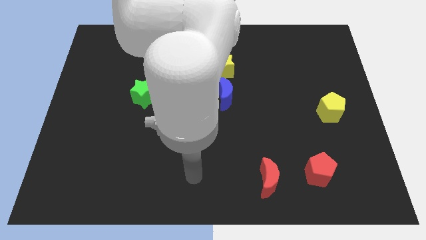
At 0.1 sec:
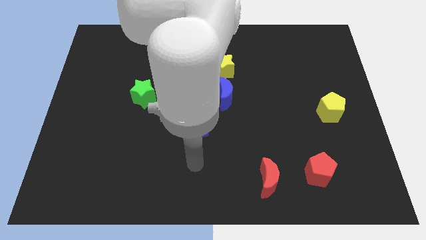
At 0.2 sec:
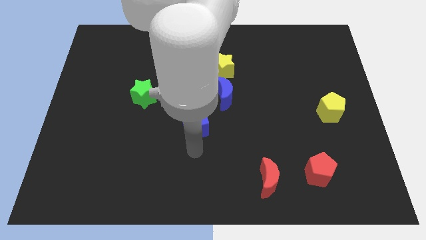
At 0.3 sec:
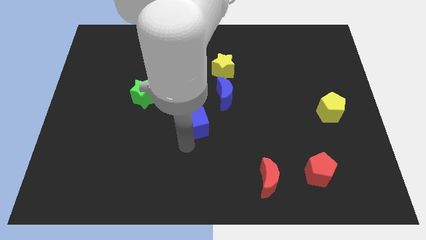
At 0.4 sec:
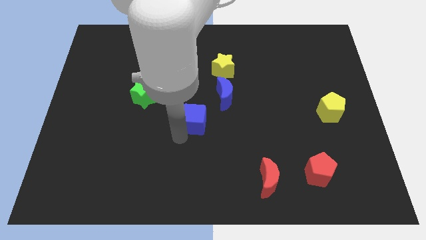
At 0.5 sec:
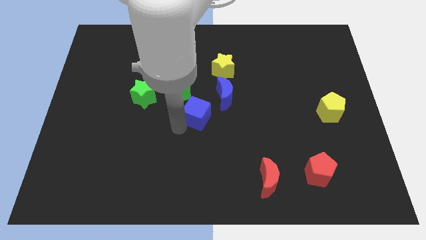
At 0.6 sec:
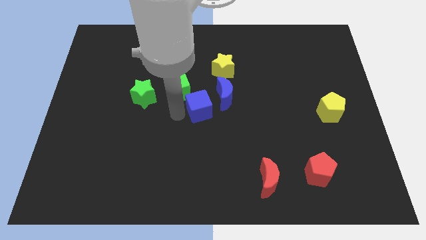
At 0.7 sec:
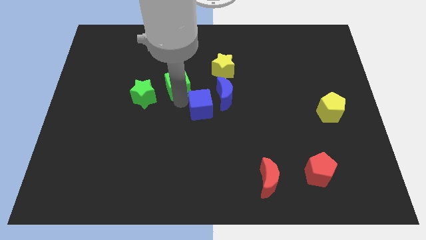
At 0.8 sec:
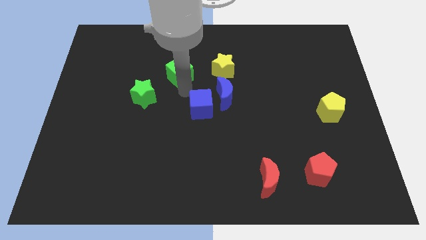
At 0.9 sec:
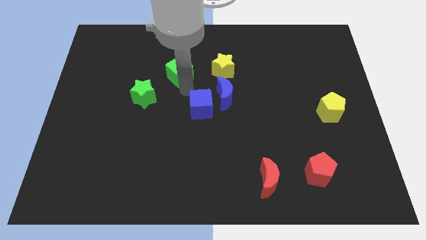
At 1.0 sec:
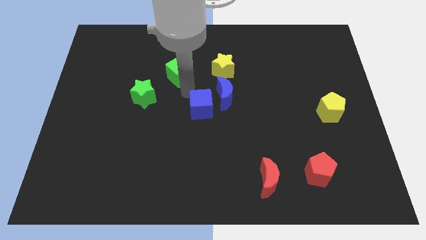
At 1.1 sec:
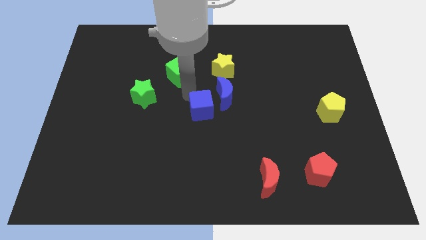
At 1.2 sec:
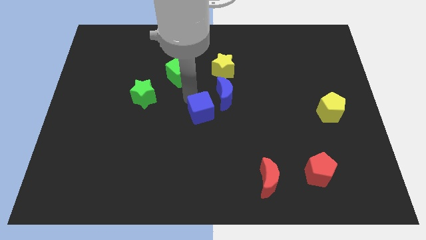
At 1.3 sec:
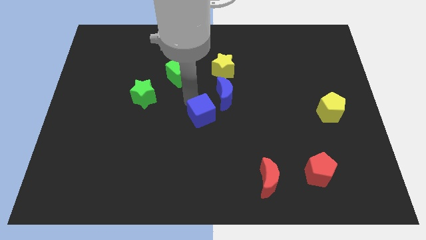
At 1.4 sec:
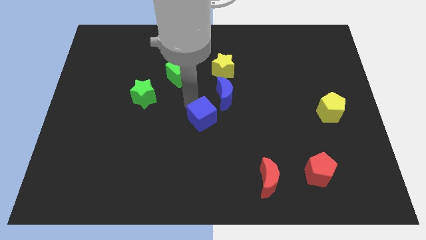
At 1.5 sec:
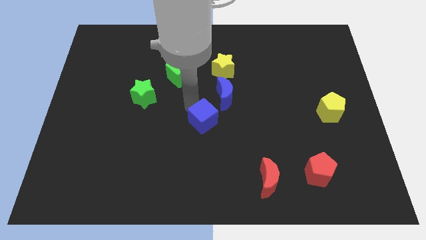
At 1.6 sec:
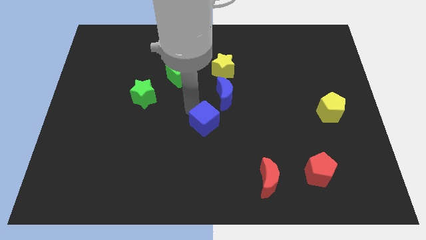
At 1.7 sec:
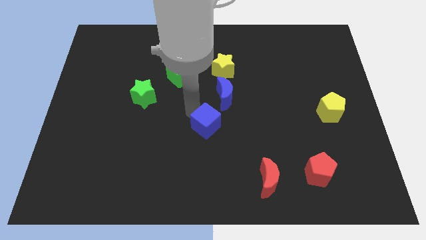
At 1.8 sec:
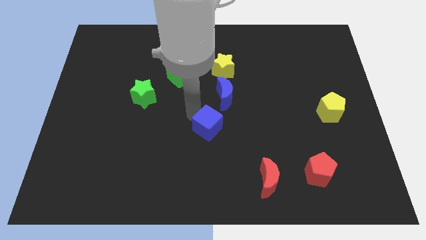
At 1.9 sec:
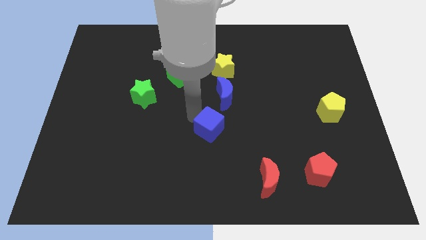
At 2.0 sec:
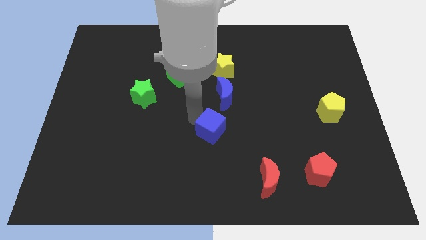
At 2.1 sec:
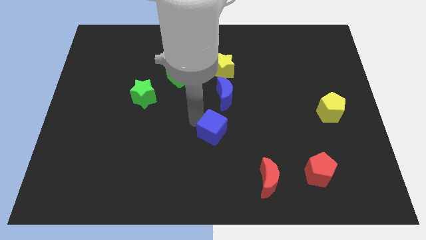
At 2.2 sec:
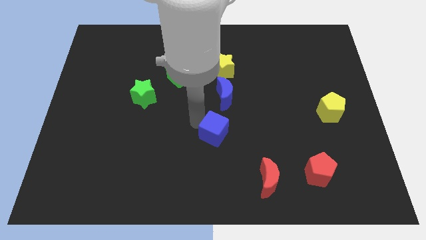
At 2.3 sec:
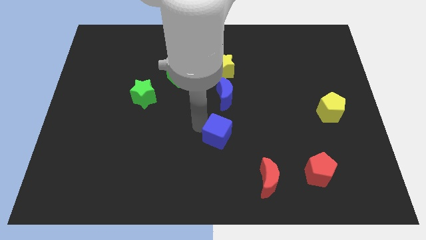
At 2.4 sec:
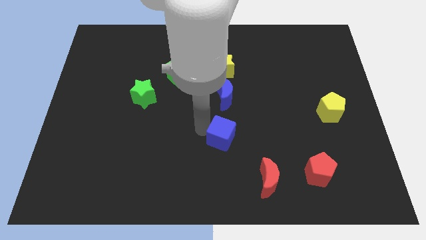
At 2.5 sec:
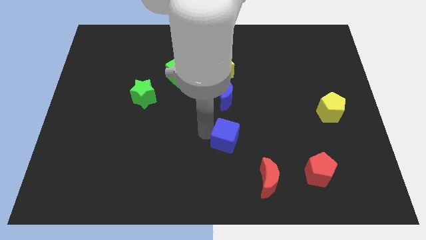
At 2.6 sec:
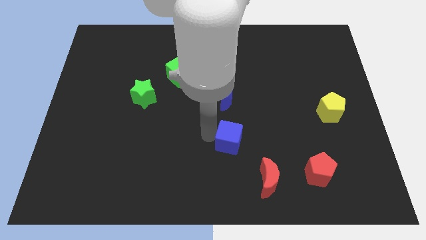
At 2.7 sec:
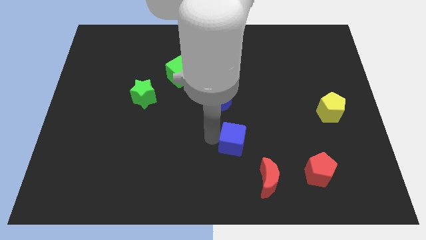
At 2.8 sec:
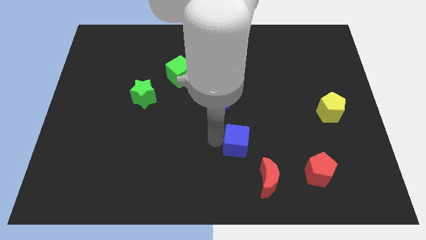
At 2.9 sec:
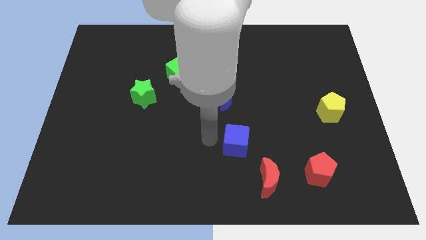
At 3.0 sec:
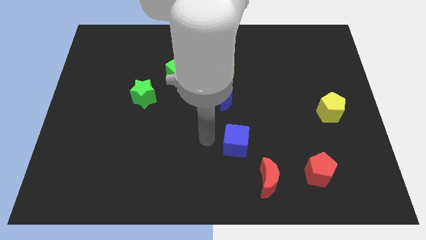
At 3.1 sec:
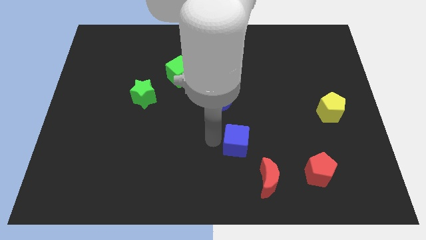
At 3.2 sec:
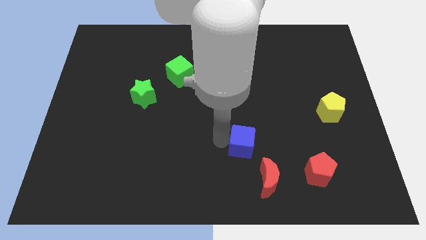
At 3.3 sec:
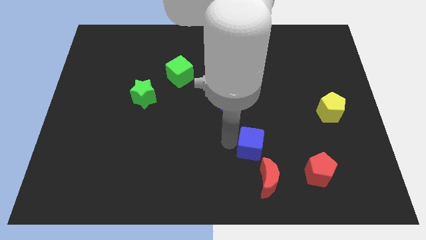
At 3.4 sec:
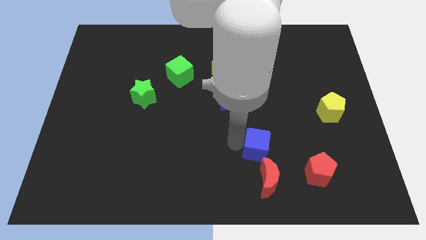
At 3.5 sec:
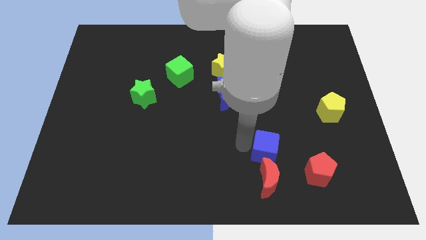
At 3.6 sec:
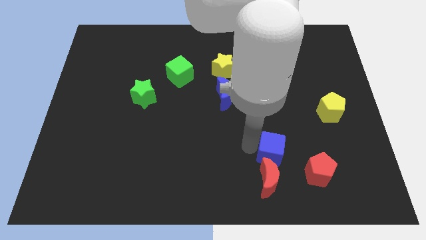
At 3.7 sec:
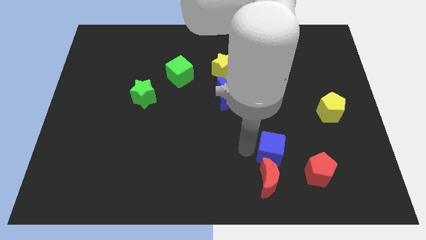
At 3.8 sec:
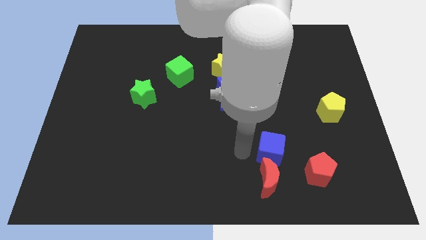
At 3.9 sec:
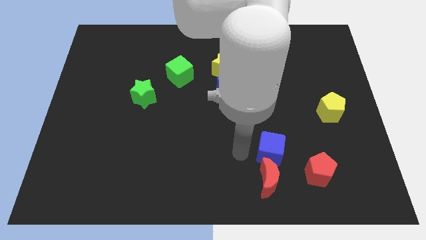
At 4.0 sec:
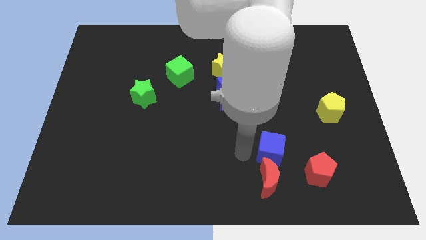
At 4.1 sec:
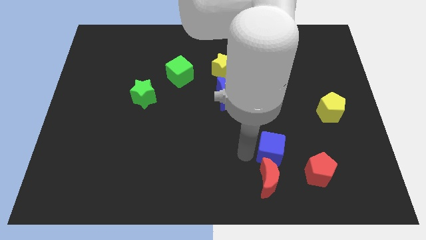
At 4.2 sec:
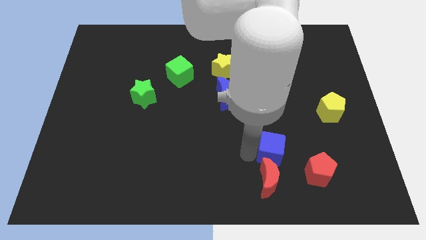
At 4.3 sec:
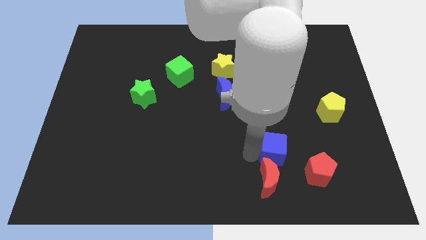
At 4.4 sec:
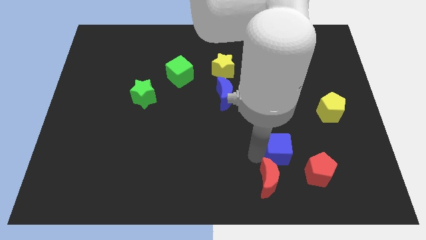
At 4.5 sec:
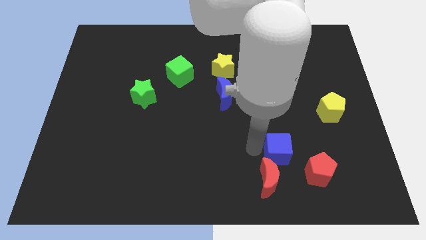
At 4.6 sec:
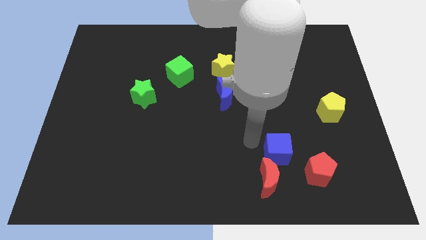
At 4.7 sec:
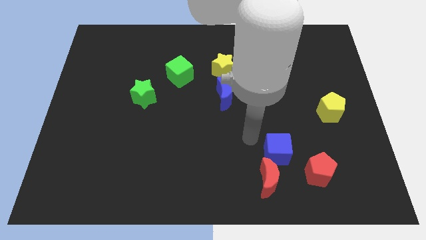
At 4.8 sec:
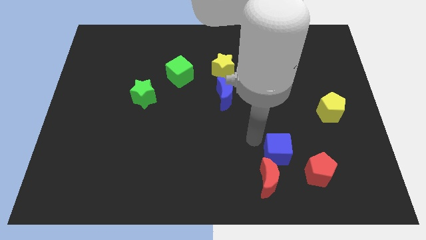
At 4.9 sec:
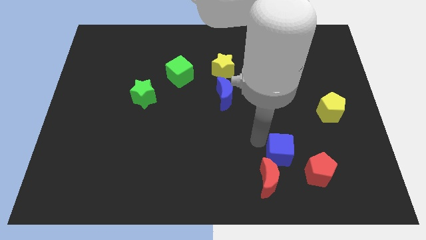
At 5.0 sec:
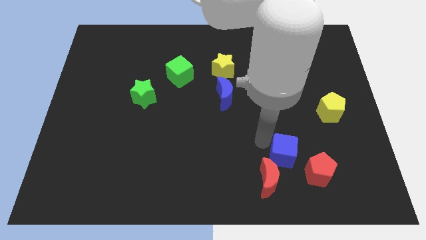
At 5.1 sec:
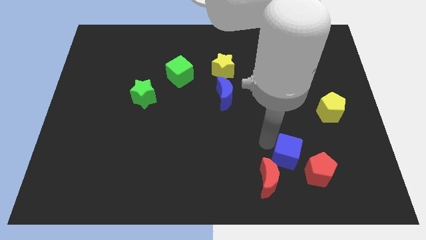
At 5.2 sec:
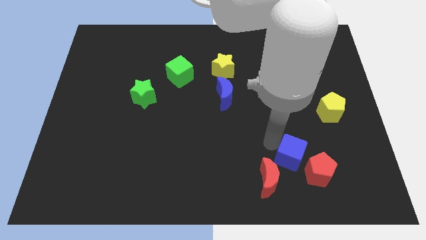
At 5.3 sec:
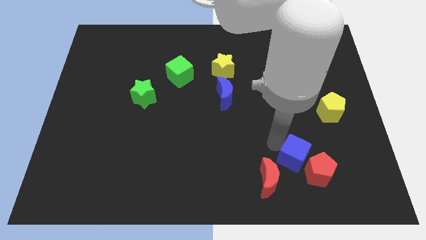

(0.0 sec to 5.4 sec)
slide the blue cube next to the red pentagon

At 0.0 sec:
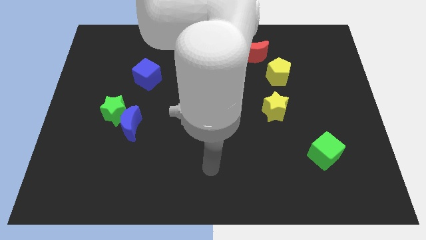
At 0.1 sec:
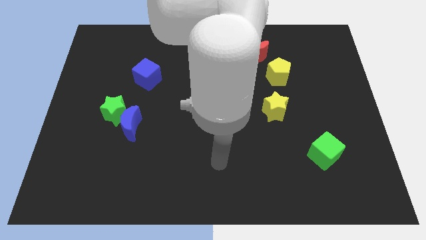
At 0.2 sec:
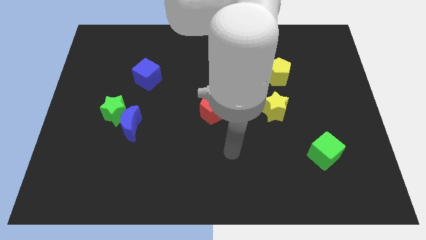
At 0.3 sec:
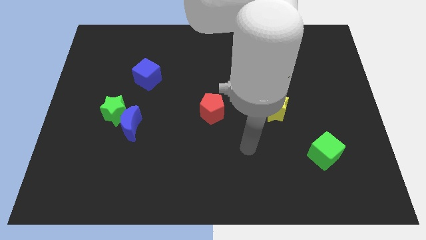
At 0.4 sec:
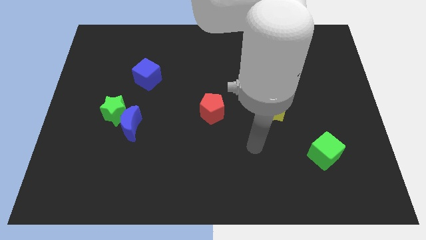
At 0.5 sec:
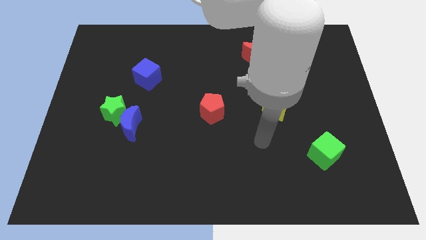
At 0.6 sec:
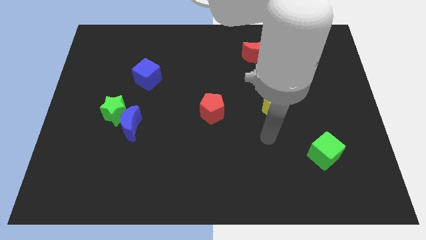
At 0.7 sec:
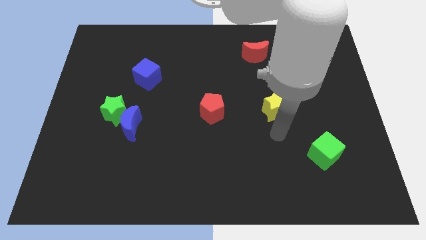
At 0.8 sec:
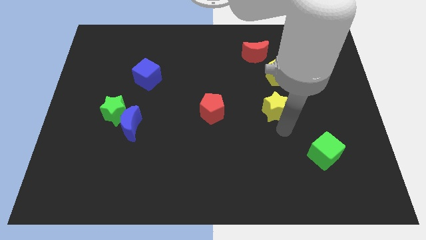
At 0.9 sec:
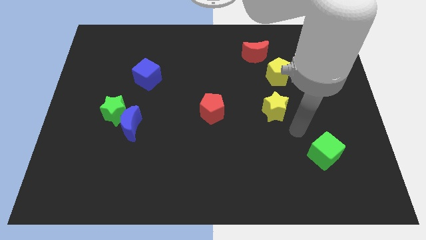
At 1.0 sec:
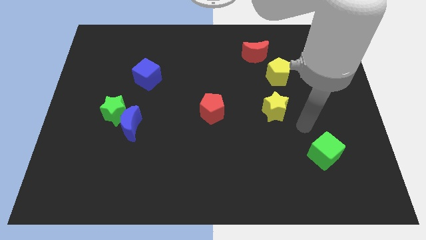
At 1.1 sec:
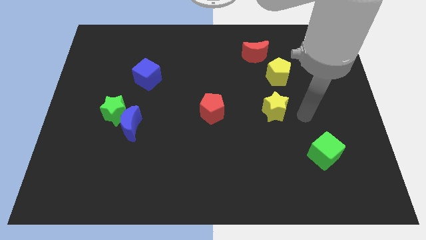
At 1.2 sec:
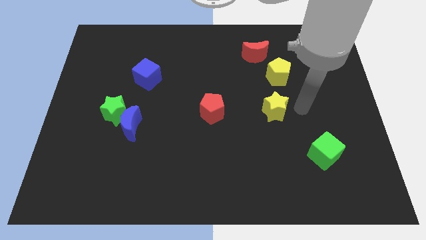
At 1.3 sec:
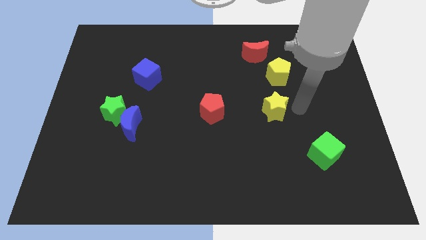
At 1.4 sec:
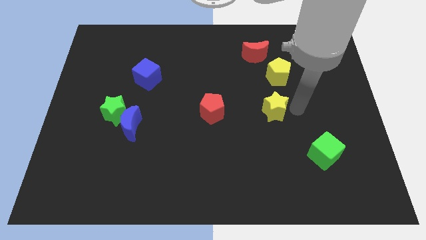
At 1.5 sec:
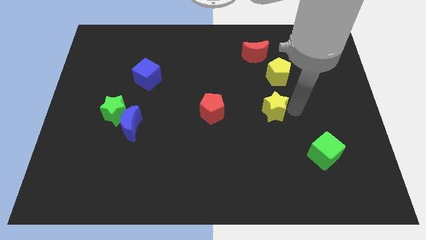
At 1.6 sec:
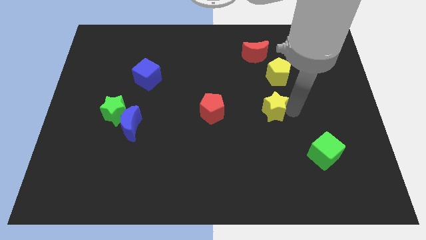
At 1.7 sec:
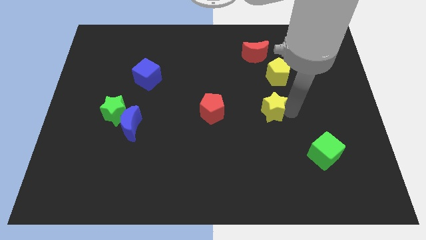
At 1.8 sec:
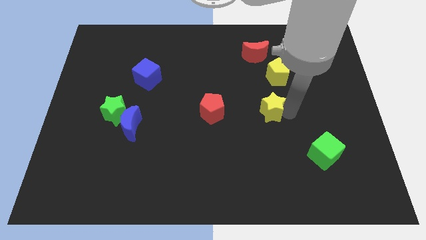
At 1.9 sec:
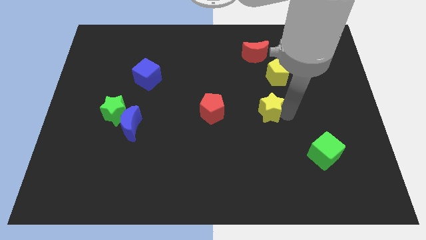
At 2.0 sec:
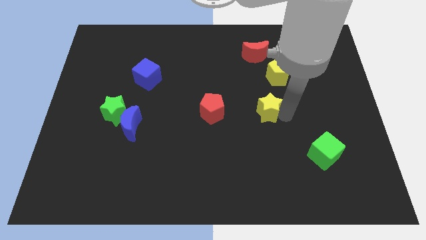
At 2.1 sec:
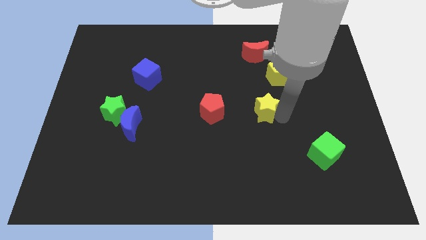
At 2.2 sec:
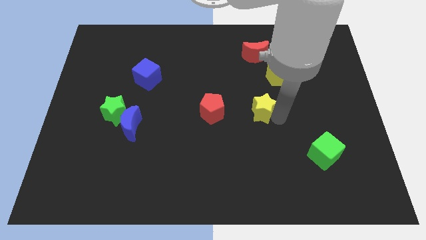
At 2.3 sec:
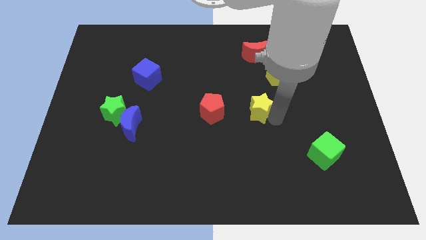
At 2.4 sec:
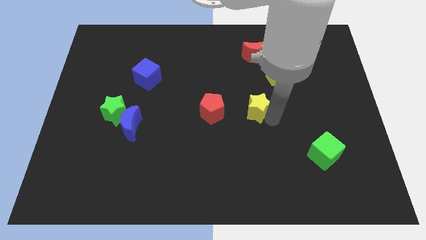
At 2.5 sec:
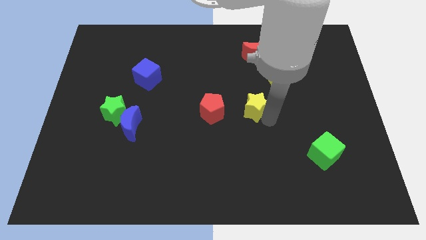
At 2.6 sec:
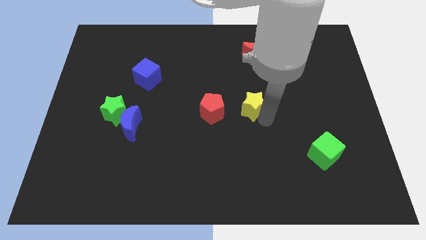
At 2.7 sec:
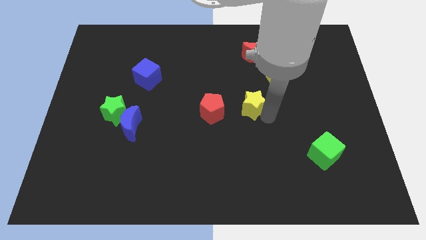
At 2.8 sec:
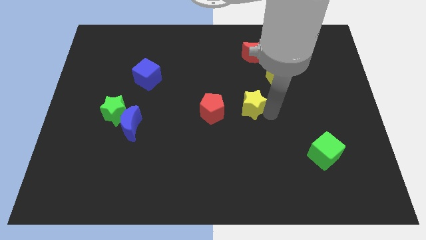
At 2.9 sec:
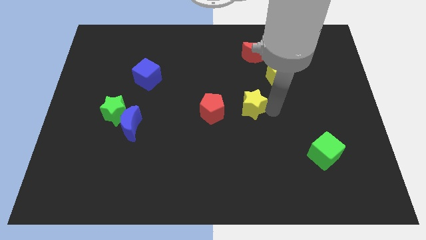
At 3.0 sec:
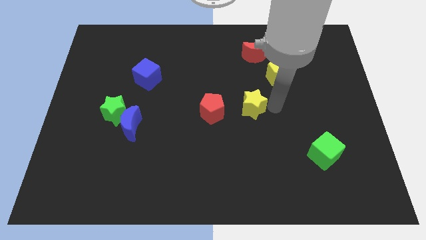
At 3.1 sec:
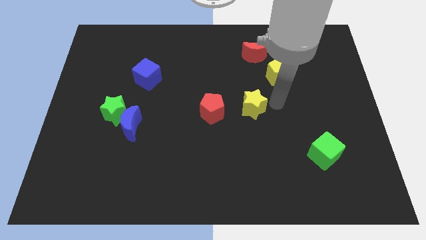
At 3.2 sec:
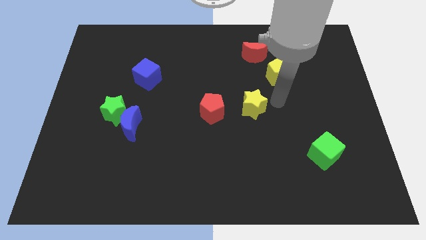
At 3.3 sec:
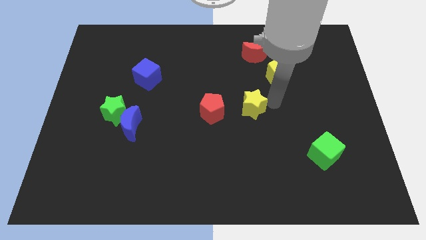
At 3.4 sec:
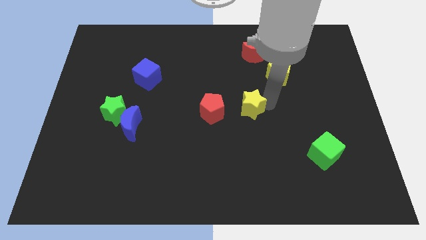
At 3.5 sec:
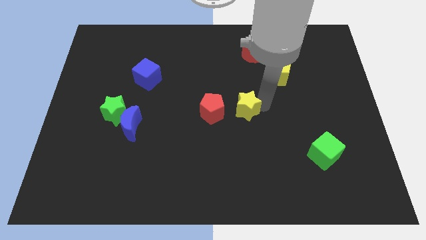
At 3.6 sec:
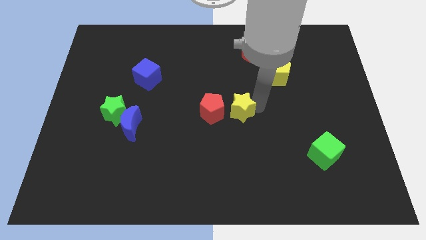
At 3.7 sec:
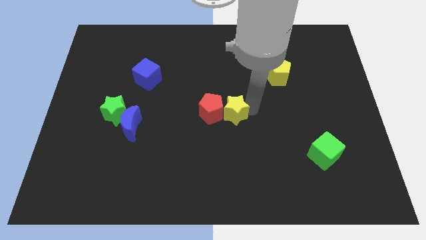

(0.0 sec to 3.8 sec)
move the yellow star to the red pentagon
